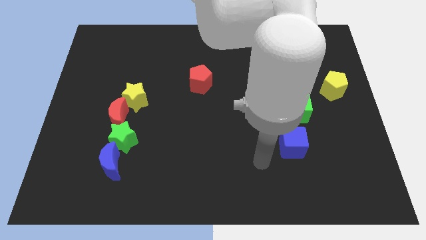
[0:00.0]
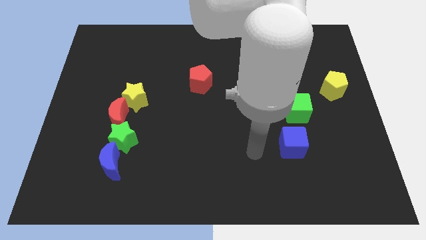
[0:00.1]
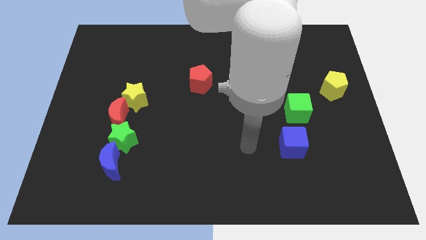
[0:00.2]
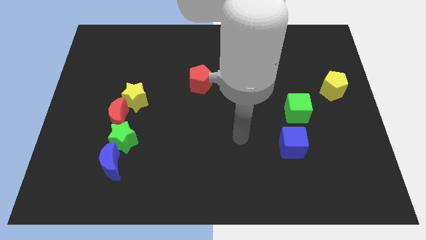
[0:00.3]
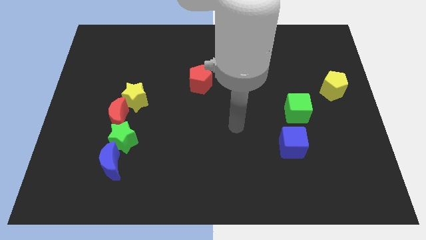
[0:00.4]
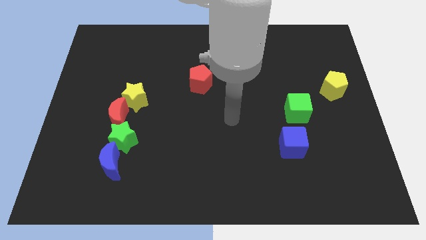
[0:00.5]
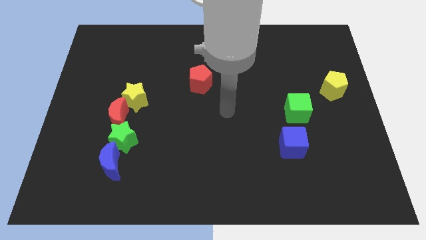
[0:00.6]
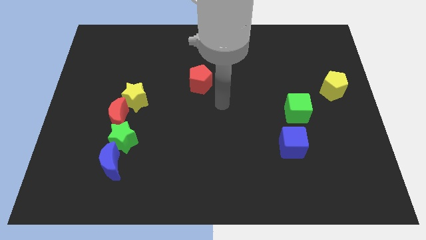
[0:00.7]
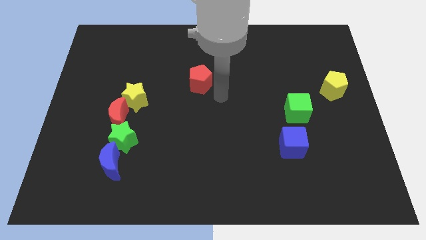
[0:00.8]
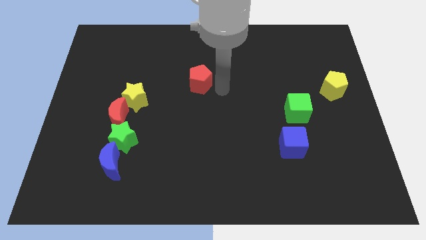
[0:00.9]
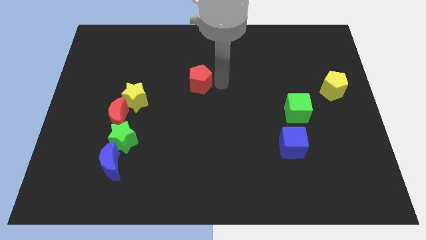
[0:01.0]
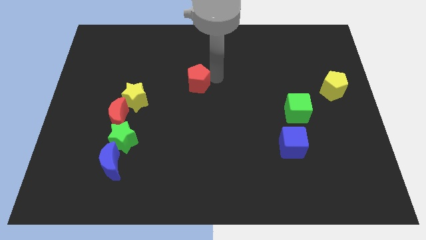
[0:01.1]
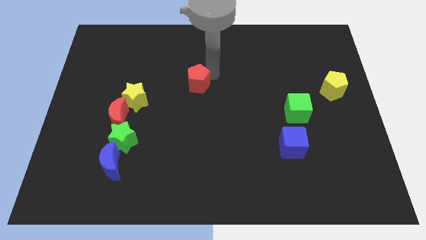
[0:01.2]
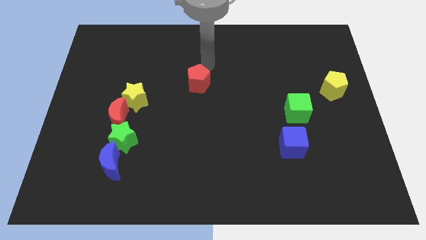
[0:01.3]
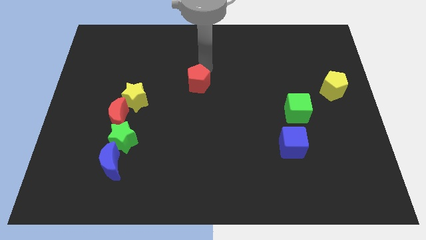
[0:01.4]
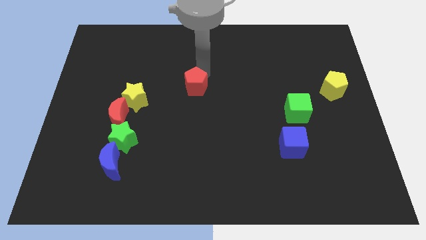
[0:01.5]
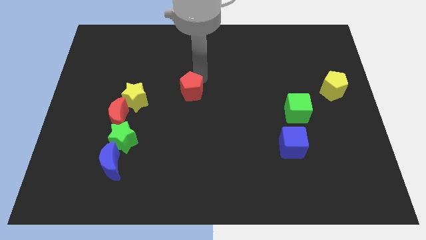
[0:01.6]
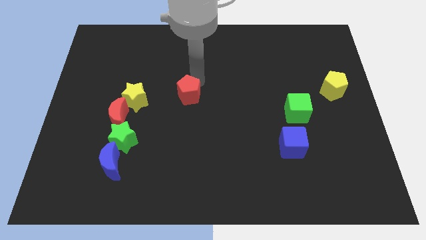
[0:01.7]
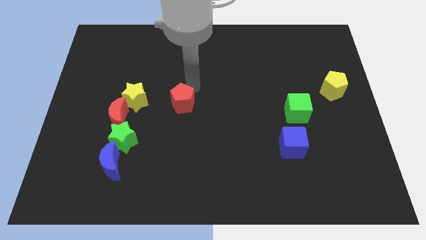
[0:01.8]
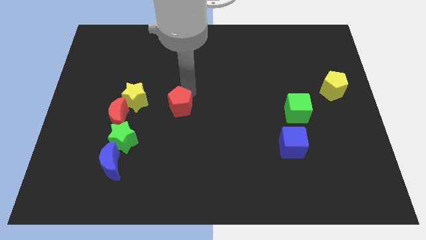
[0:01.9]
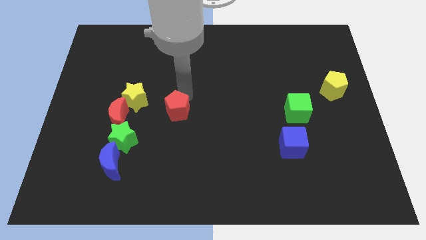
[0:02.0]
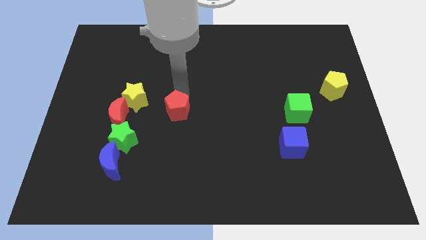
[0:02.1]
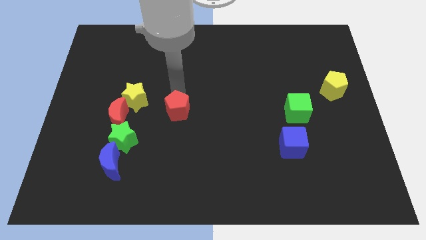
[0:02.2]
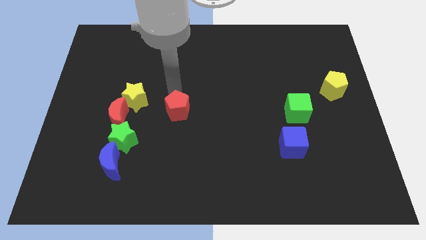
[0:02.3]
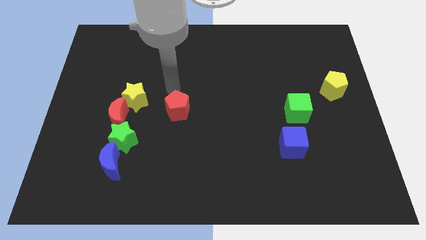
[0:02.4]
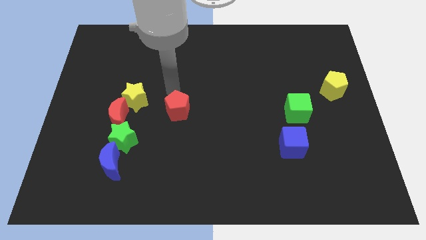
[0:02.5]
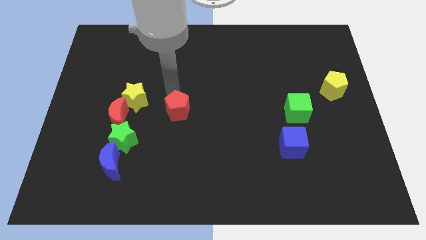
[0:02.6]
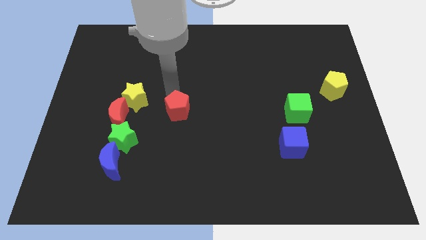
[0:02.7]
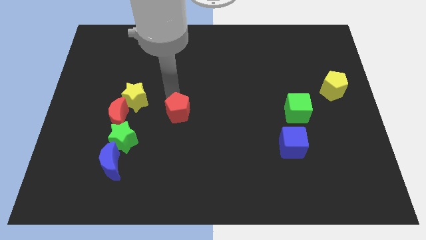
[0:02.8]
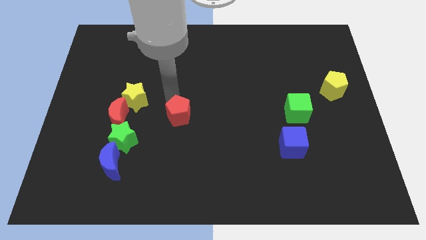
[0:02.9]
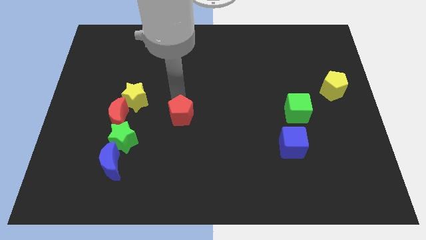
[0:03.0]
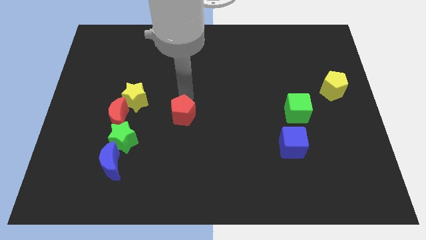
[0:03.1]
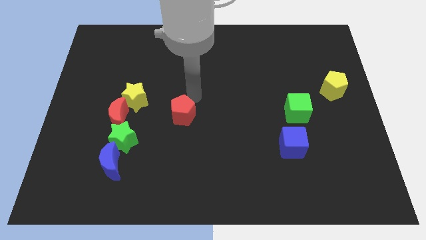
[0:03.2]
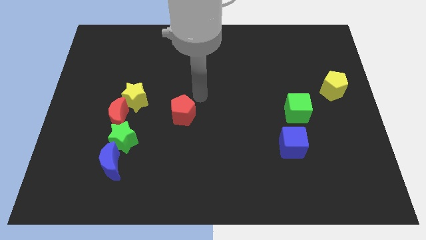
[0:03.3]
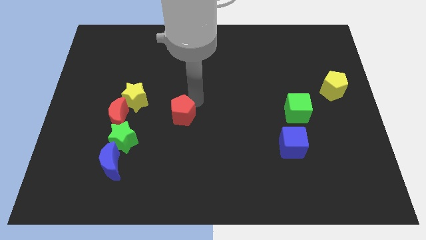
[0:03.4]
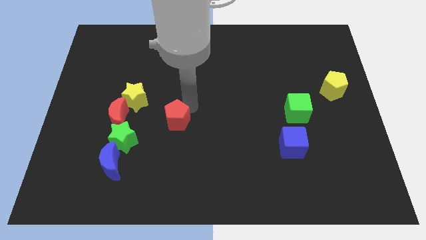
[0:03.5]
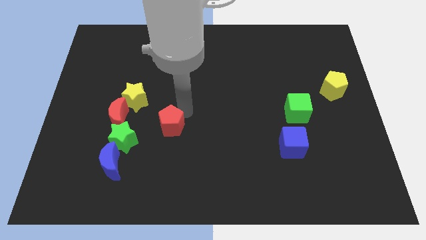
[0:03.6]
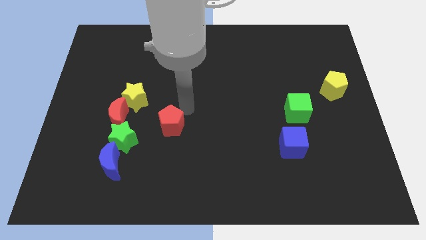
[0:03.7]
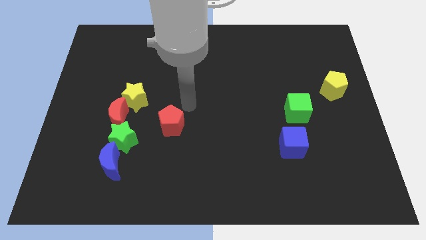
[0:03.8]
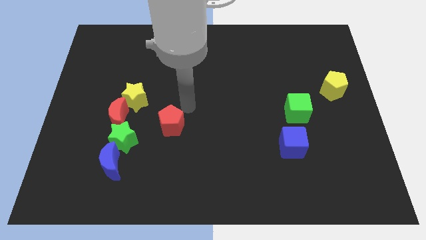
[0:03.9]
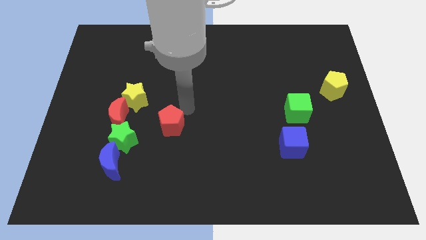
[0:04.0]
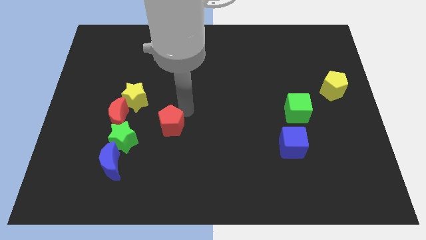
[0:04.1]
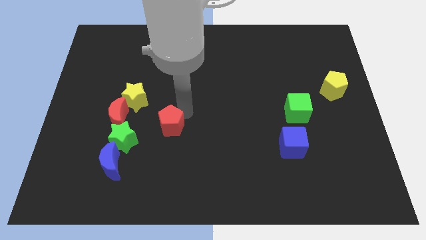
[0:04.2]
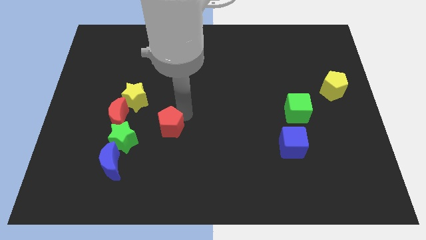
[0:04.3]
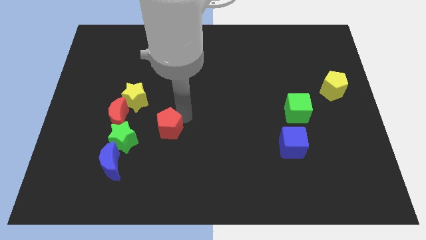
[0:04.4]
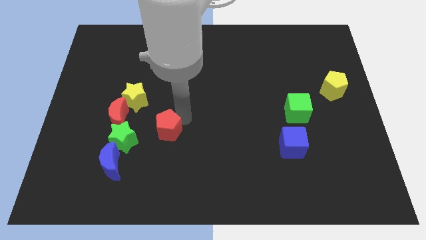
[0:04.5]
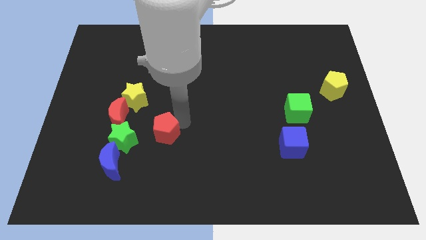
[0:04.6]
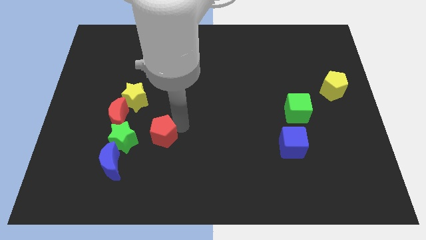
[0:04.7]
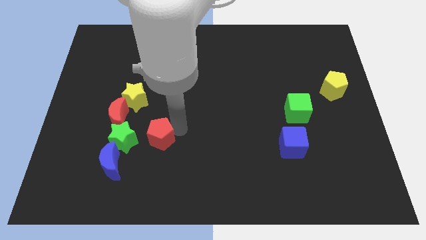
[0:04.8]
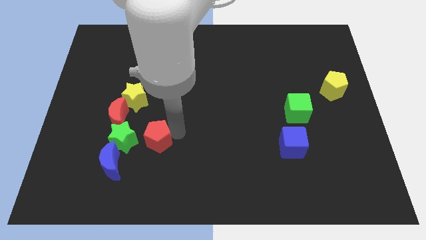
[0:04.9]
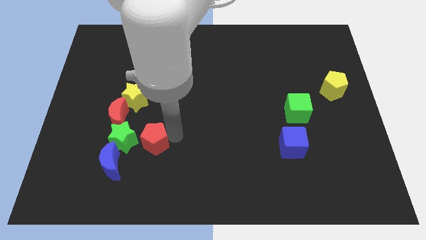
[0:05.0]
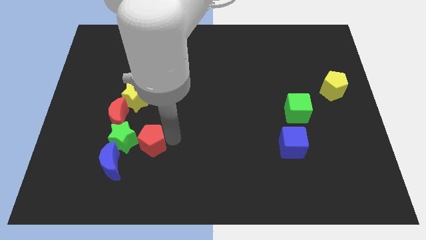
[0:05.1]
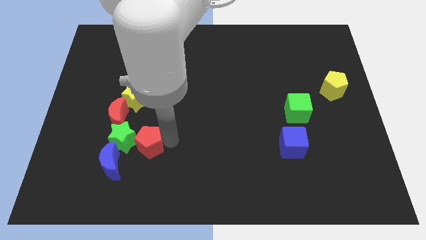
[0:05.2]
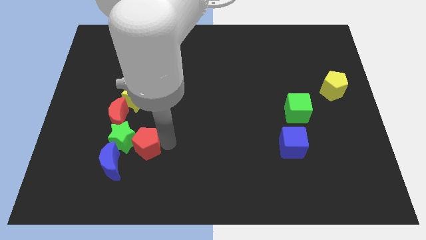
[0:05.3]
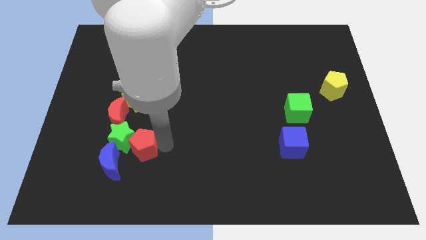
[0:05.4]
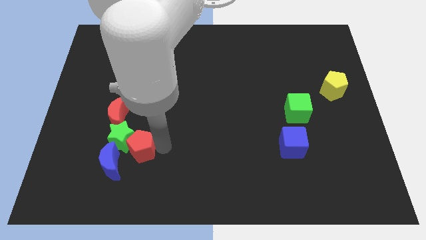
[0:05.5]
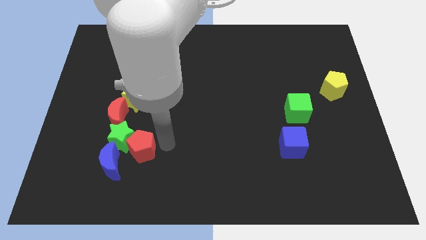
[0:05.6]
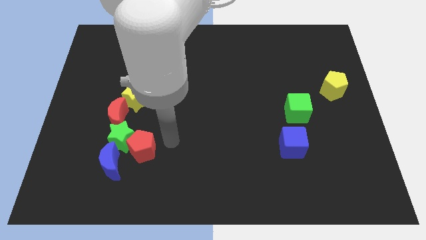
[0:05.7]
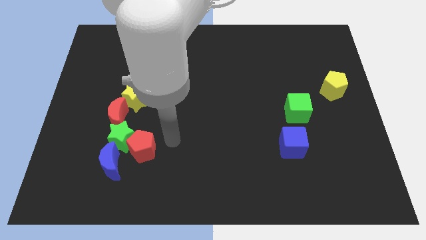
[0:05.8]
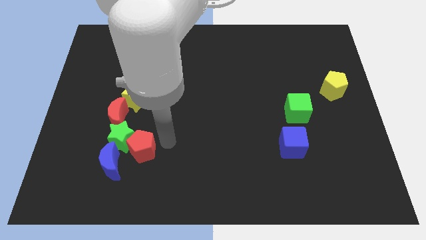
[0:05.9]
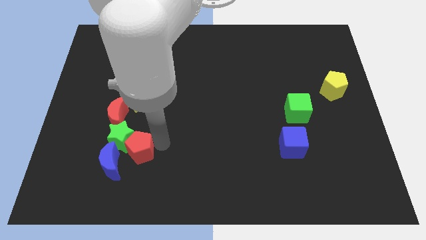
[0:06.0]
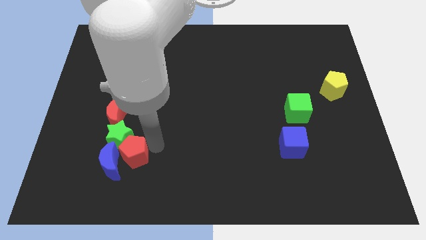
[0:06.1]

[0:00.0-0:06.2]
push the red pentagon towards the blue moon

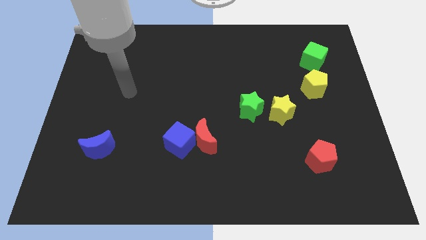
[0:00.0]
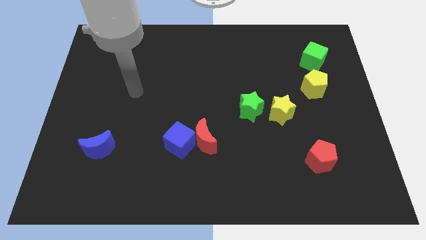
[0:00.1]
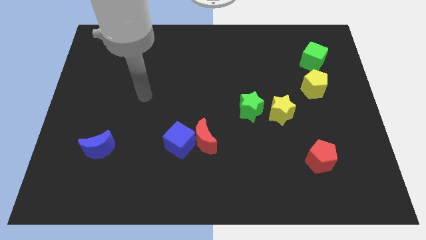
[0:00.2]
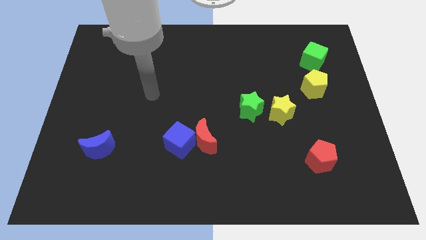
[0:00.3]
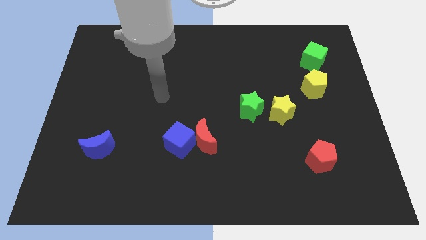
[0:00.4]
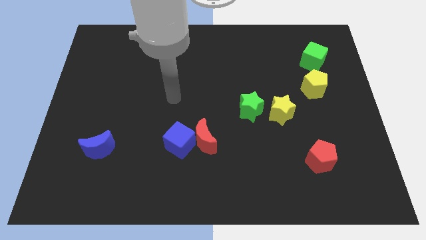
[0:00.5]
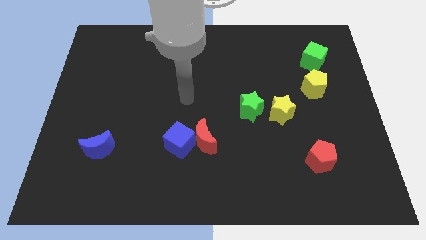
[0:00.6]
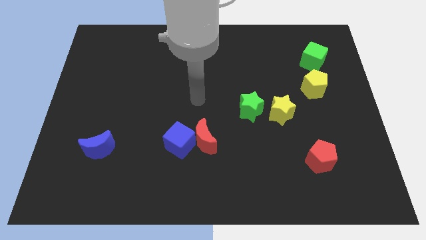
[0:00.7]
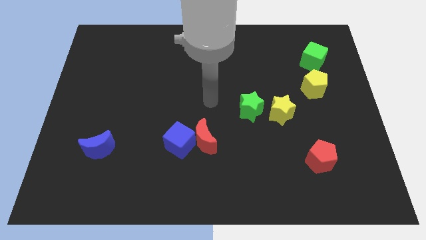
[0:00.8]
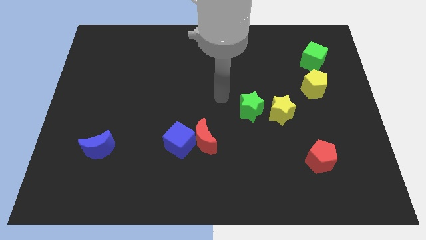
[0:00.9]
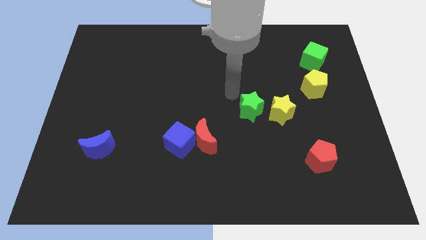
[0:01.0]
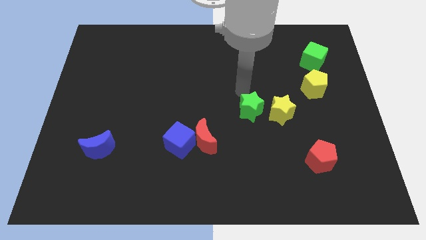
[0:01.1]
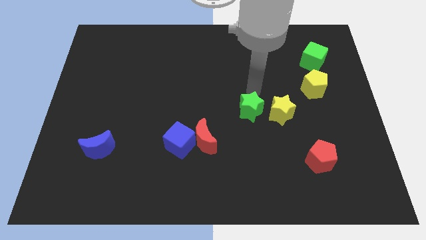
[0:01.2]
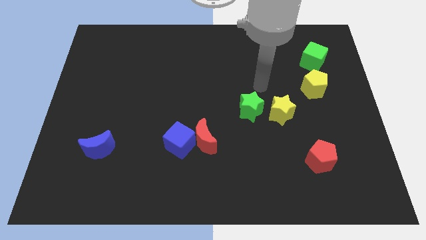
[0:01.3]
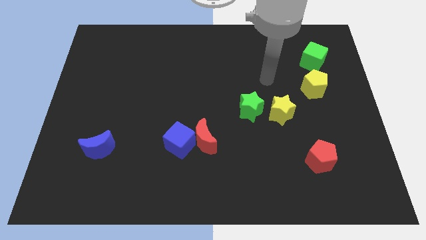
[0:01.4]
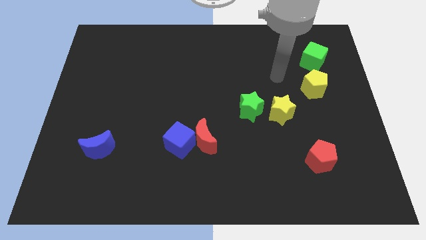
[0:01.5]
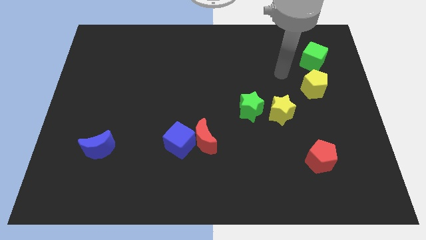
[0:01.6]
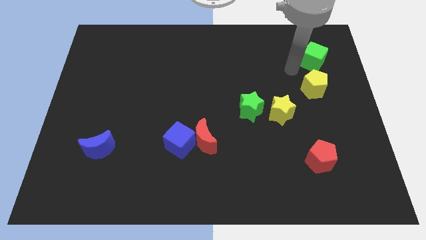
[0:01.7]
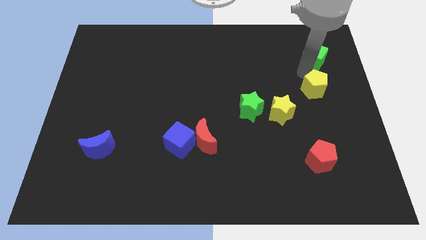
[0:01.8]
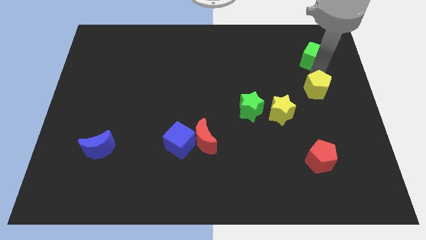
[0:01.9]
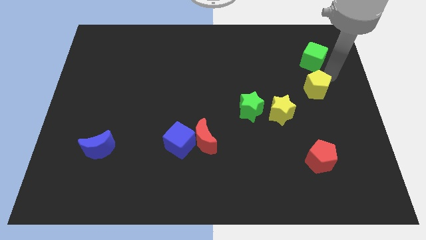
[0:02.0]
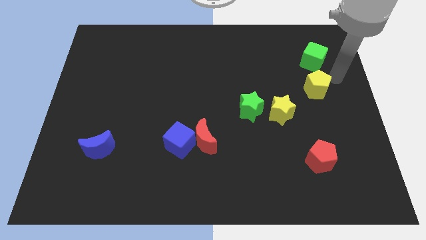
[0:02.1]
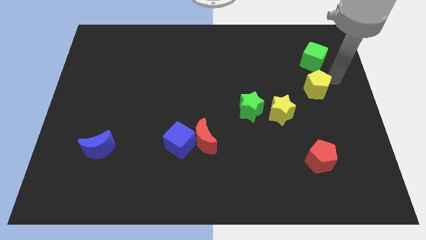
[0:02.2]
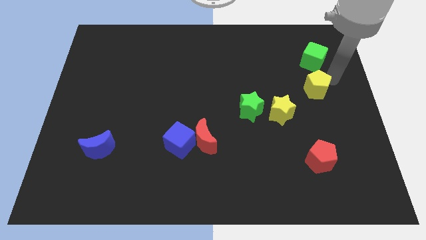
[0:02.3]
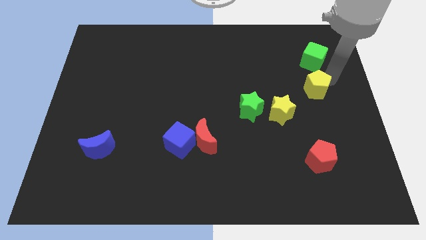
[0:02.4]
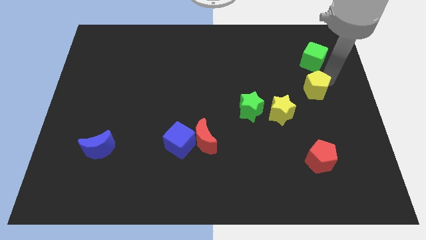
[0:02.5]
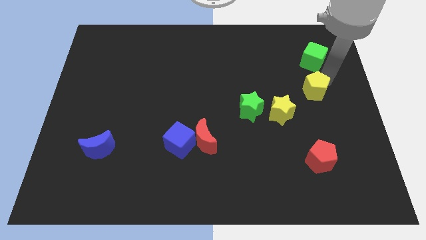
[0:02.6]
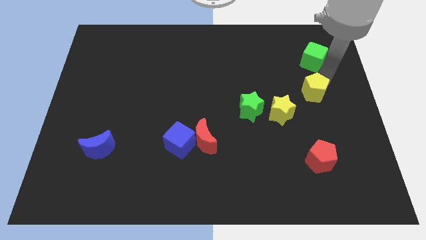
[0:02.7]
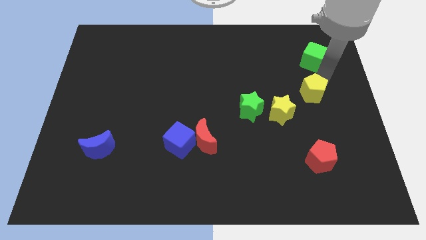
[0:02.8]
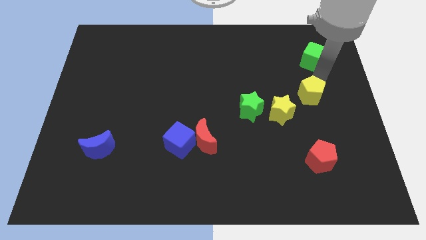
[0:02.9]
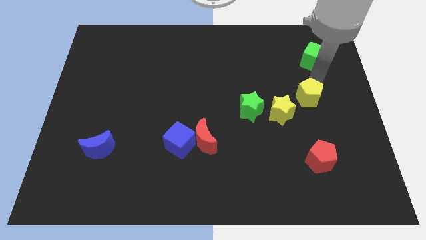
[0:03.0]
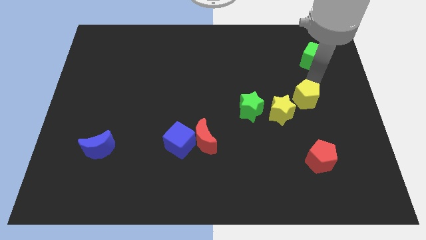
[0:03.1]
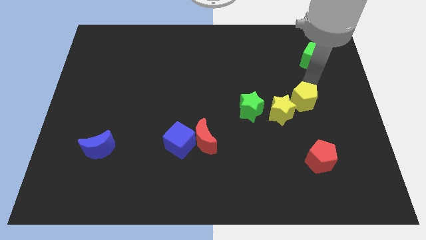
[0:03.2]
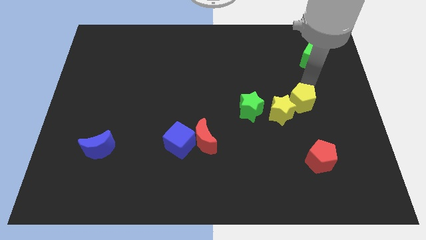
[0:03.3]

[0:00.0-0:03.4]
put the yellow pentagon to the yellow star
